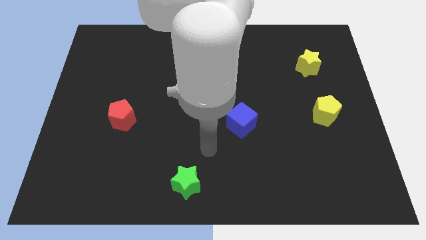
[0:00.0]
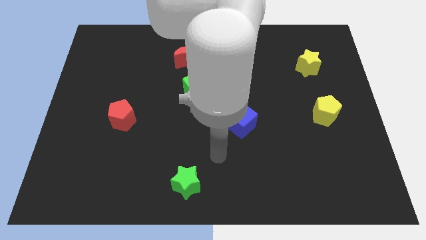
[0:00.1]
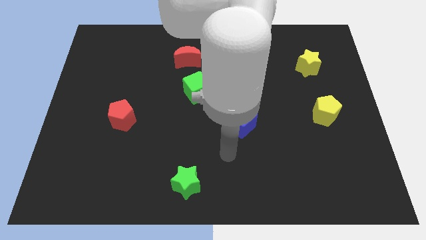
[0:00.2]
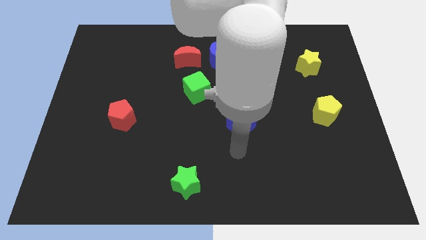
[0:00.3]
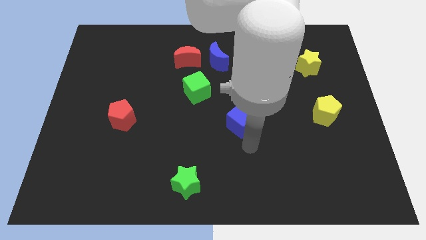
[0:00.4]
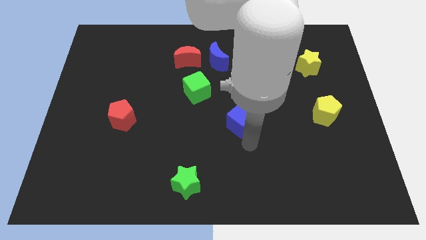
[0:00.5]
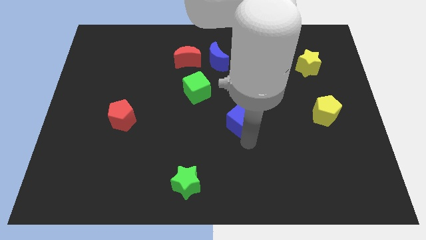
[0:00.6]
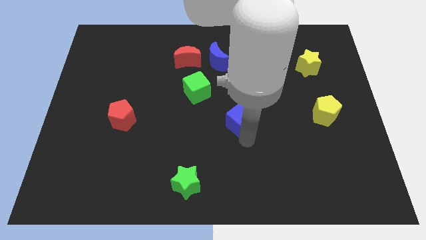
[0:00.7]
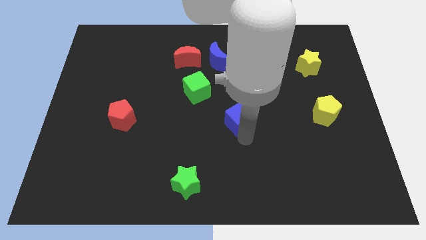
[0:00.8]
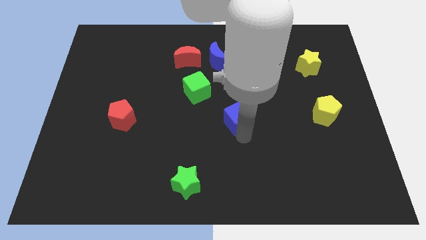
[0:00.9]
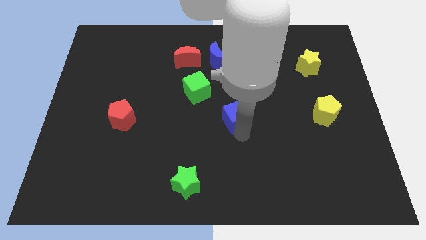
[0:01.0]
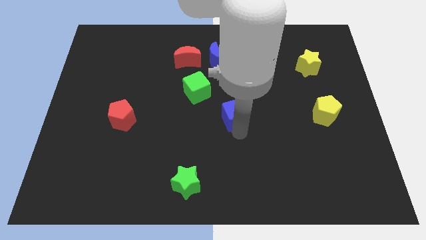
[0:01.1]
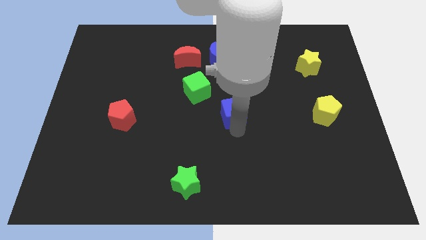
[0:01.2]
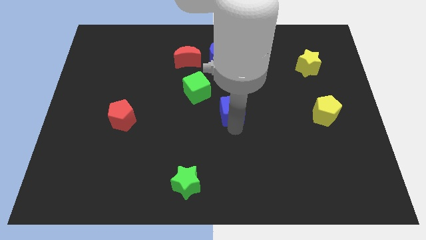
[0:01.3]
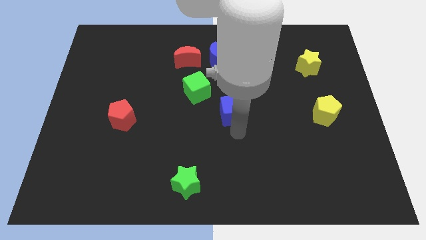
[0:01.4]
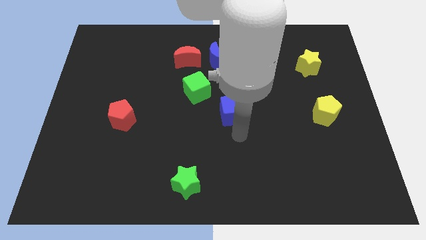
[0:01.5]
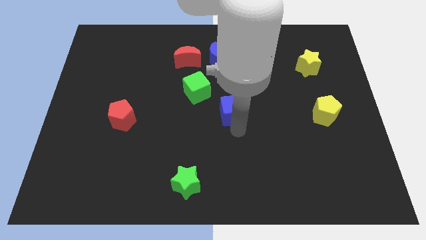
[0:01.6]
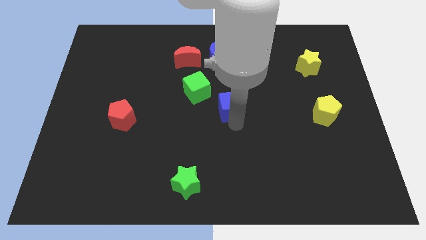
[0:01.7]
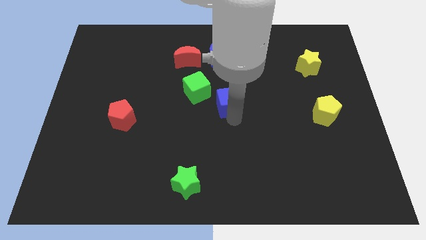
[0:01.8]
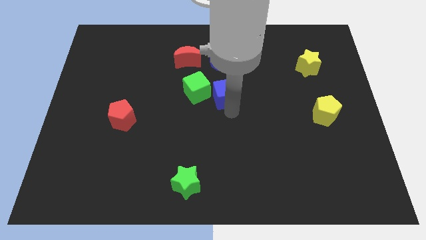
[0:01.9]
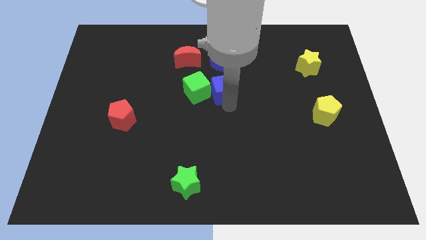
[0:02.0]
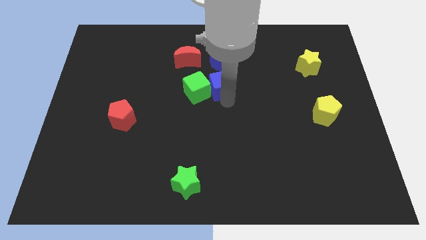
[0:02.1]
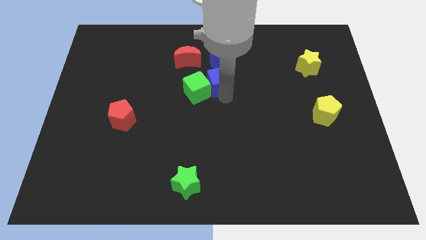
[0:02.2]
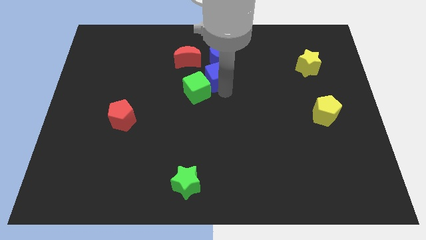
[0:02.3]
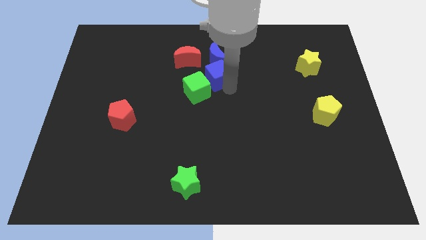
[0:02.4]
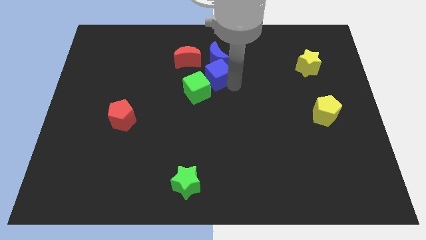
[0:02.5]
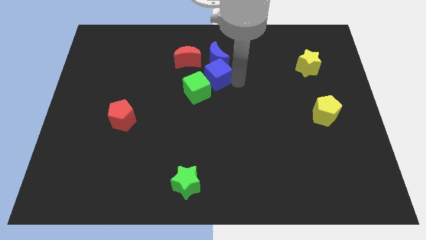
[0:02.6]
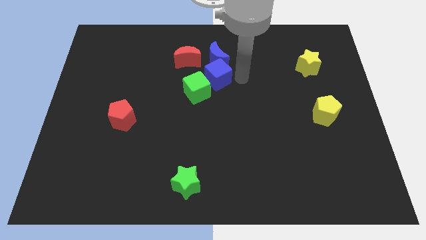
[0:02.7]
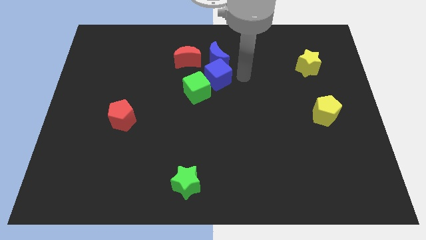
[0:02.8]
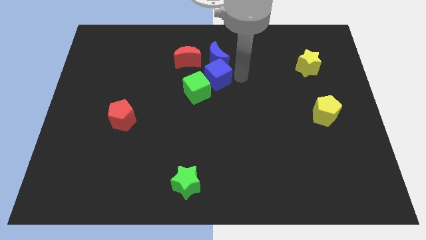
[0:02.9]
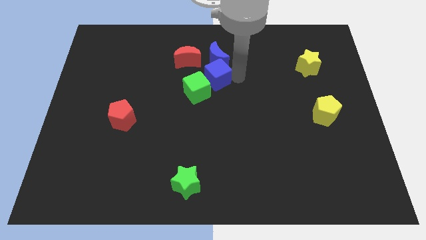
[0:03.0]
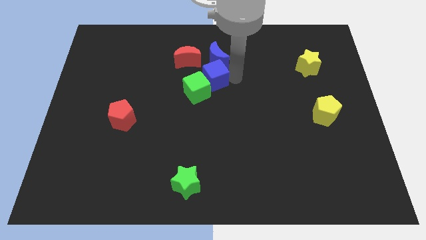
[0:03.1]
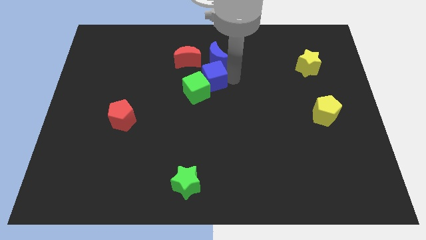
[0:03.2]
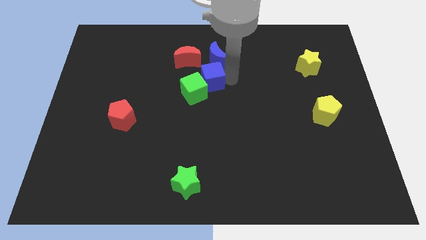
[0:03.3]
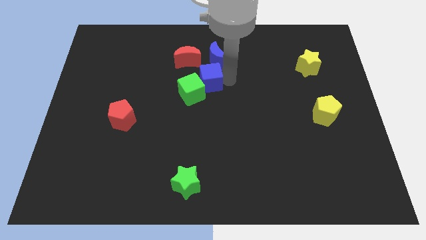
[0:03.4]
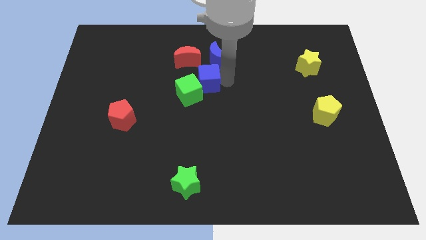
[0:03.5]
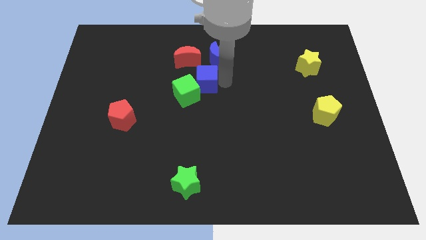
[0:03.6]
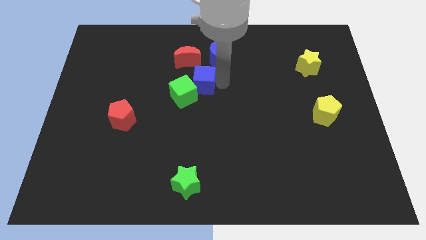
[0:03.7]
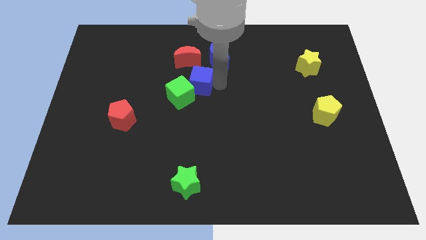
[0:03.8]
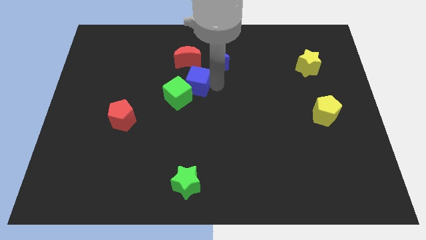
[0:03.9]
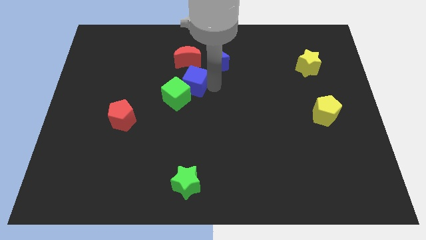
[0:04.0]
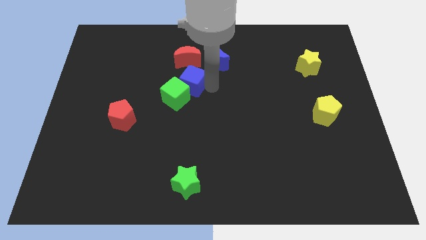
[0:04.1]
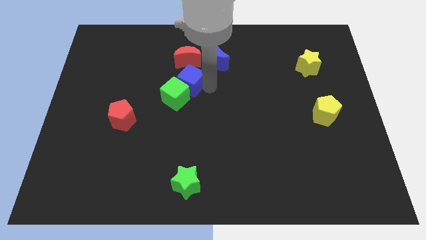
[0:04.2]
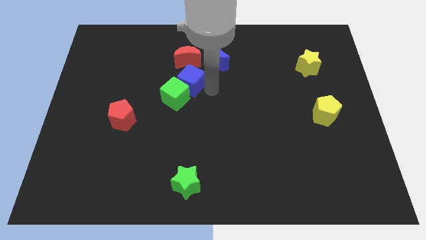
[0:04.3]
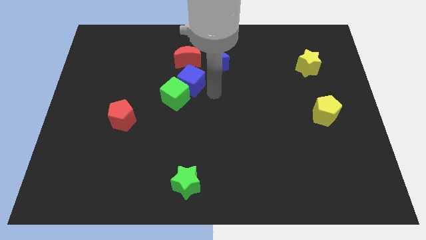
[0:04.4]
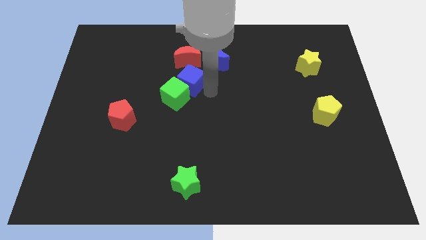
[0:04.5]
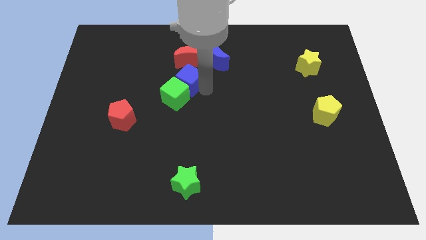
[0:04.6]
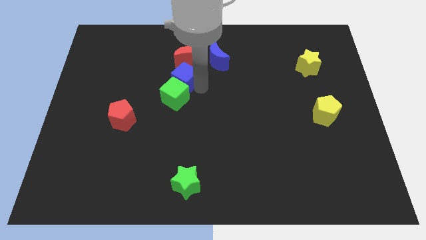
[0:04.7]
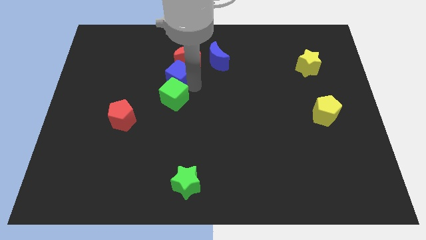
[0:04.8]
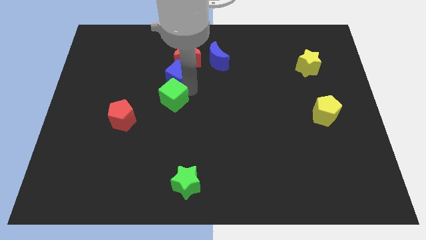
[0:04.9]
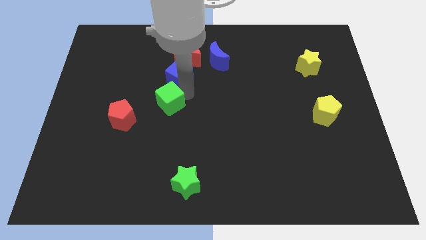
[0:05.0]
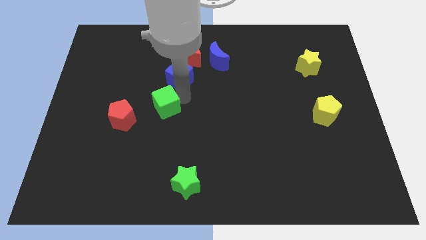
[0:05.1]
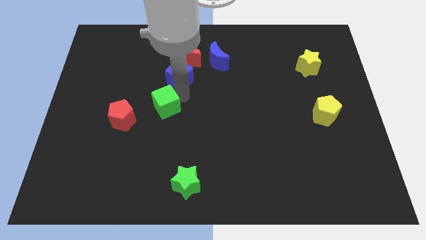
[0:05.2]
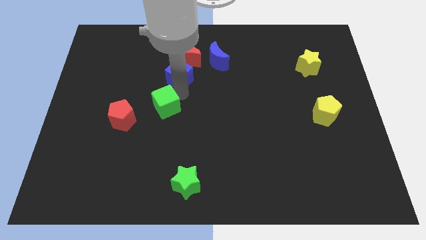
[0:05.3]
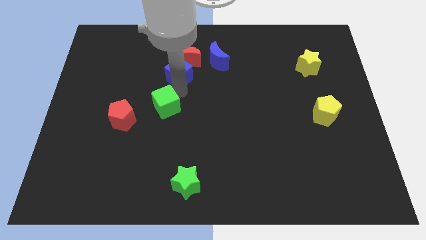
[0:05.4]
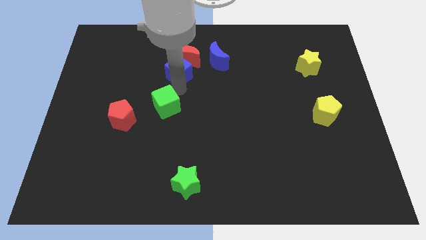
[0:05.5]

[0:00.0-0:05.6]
put the blue cube left of the blue moon

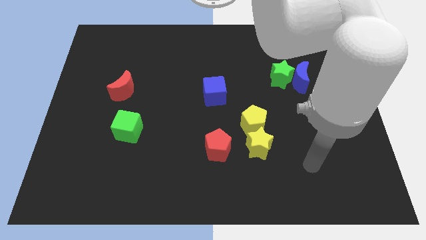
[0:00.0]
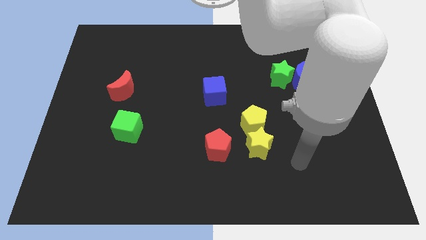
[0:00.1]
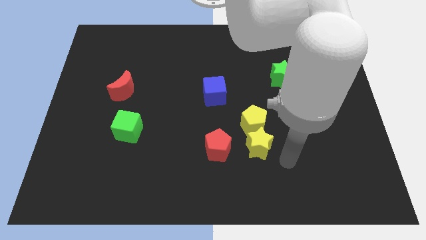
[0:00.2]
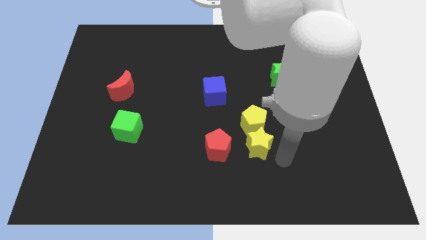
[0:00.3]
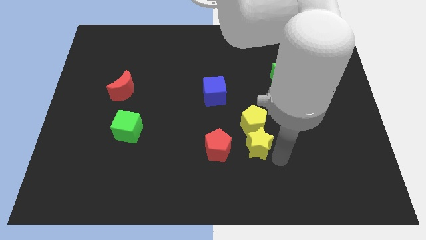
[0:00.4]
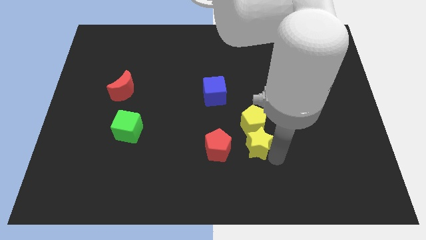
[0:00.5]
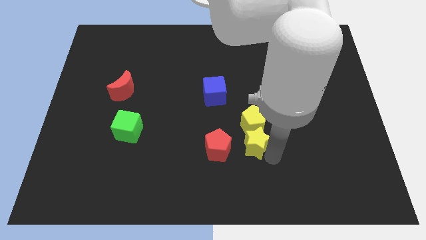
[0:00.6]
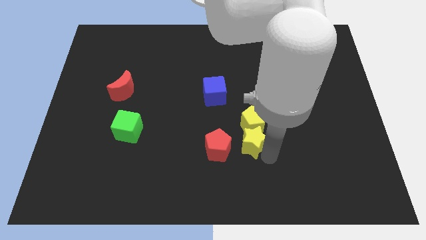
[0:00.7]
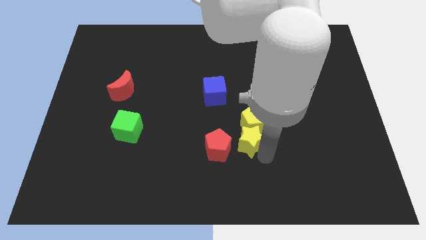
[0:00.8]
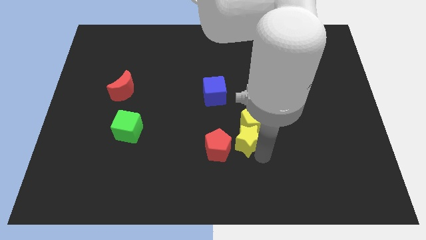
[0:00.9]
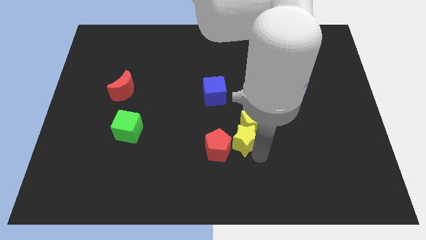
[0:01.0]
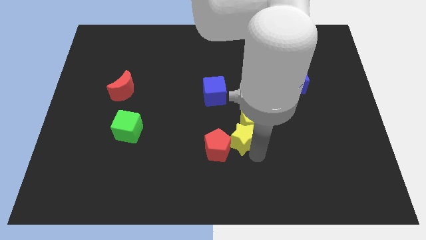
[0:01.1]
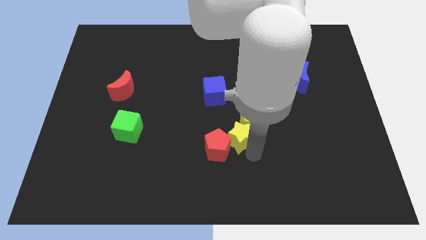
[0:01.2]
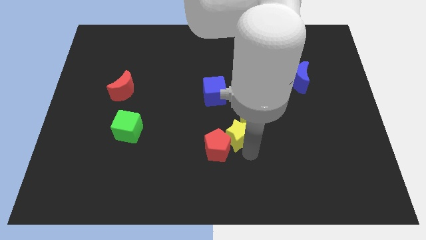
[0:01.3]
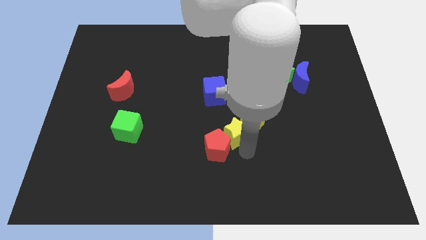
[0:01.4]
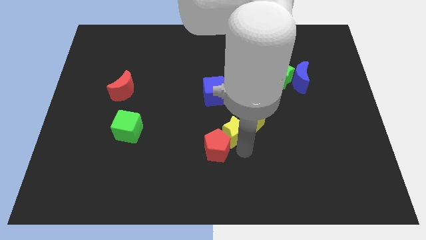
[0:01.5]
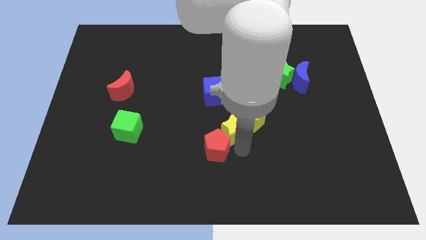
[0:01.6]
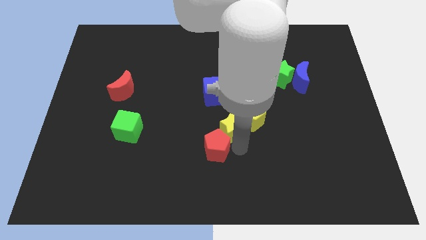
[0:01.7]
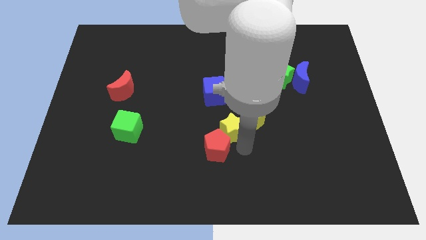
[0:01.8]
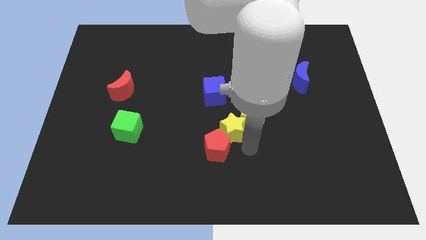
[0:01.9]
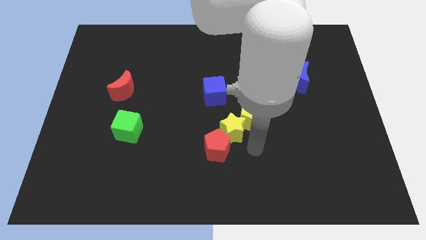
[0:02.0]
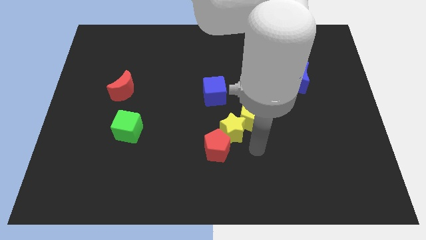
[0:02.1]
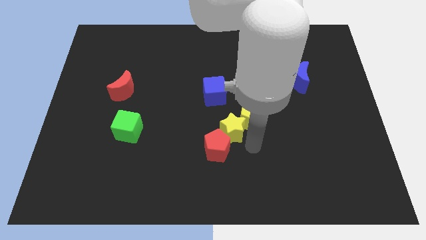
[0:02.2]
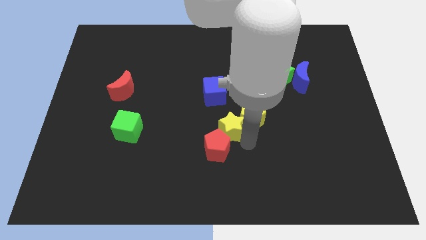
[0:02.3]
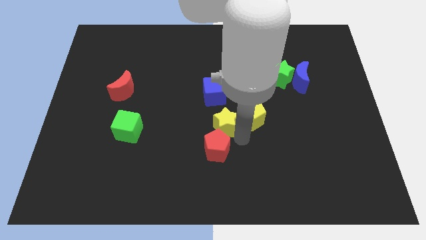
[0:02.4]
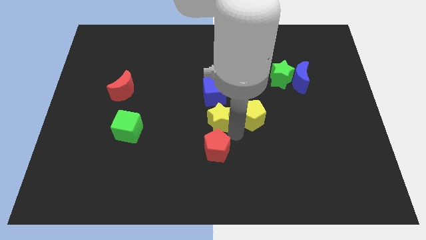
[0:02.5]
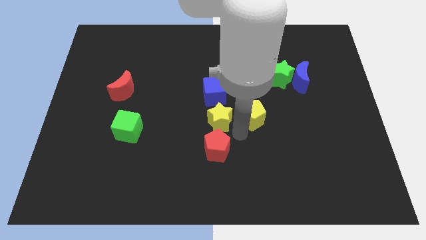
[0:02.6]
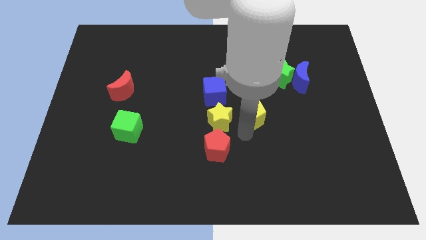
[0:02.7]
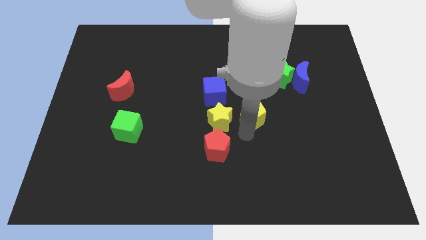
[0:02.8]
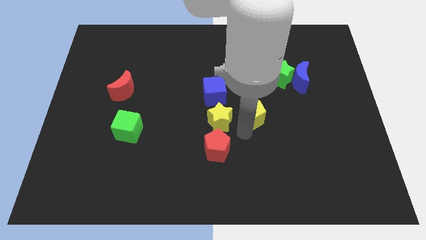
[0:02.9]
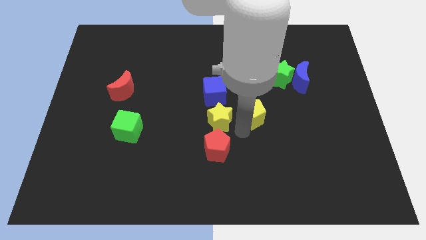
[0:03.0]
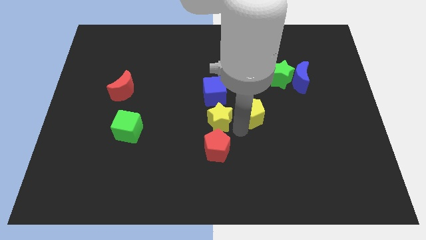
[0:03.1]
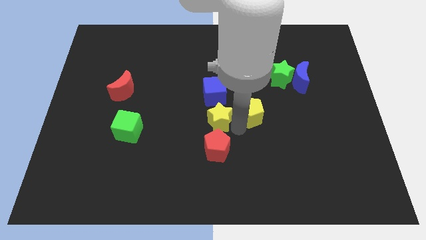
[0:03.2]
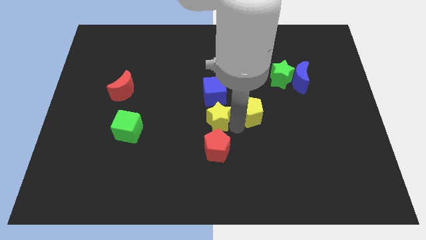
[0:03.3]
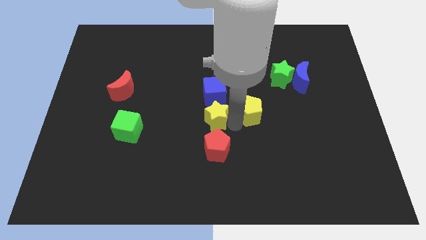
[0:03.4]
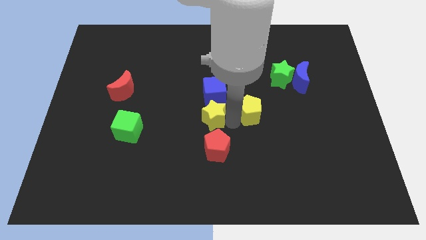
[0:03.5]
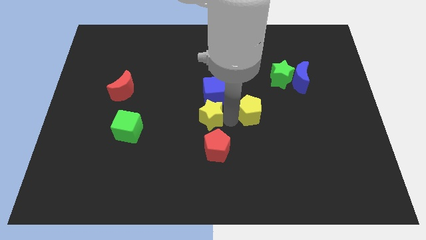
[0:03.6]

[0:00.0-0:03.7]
slide the yellow star diagonally down and to the left of the blue cube
